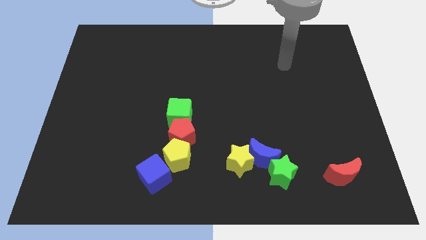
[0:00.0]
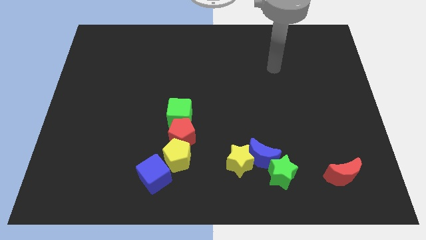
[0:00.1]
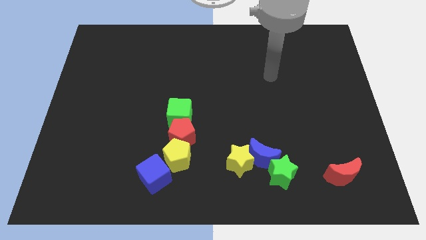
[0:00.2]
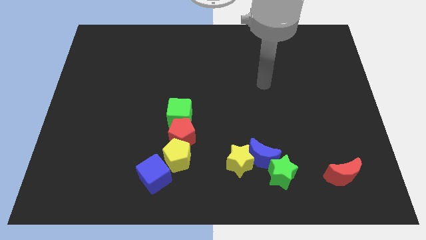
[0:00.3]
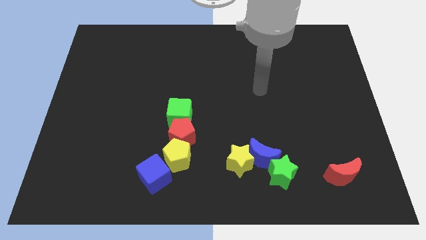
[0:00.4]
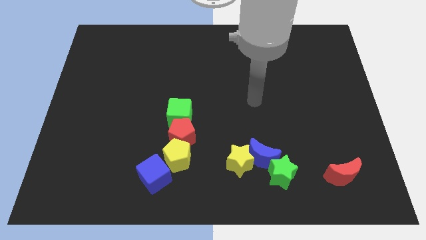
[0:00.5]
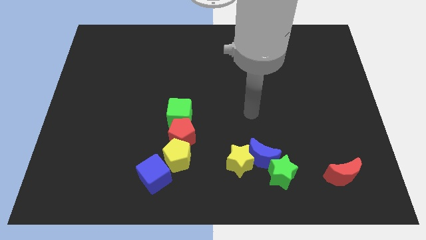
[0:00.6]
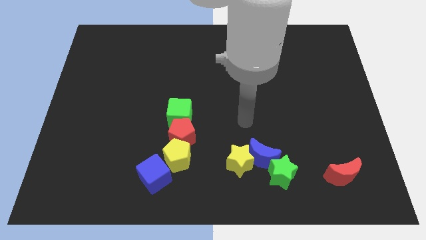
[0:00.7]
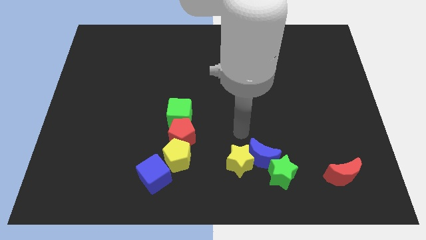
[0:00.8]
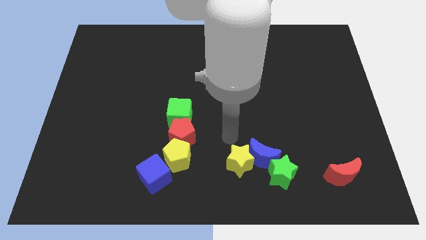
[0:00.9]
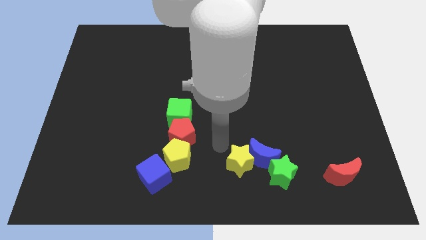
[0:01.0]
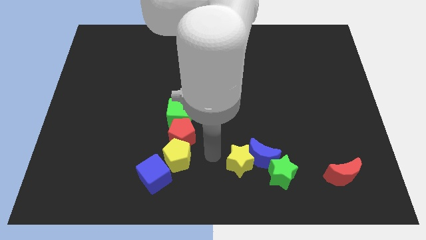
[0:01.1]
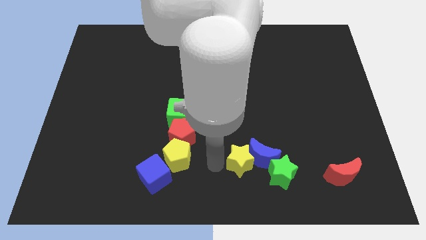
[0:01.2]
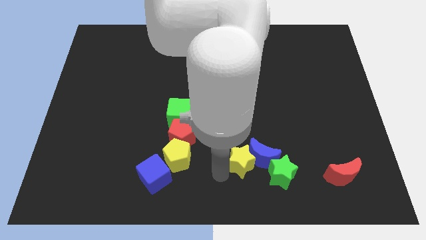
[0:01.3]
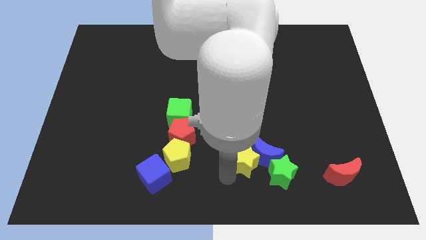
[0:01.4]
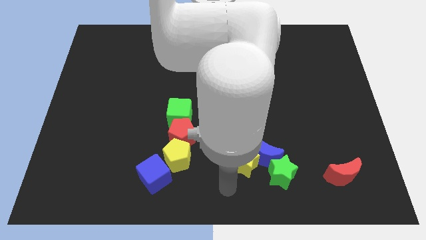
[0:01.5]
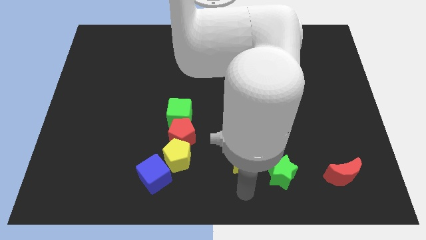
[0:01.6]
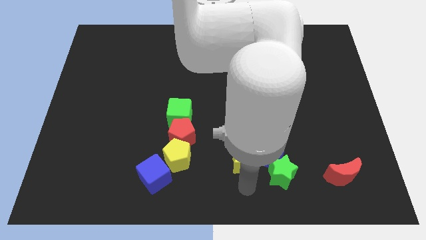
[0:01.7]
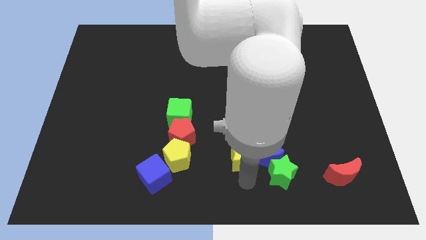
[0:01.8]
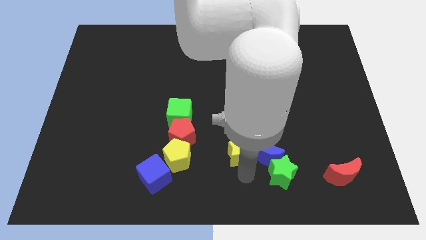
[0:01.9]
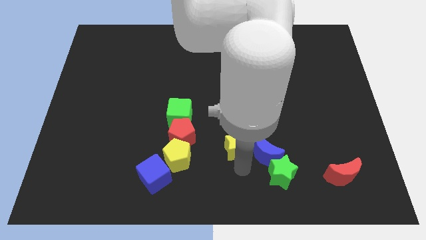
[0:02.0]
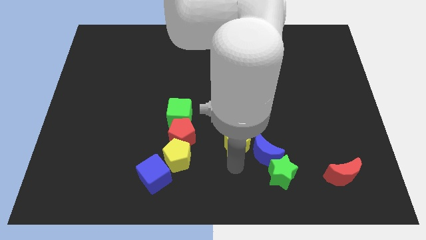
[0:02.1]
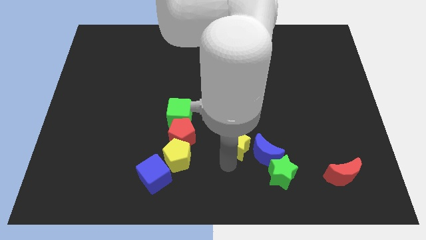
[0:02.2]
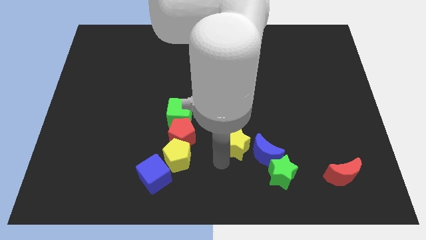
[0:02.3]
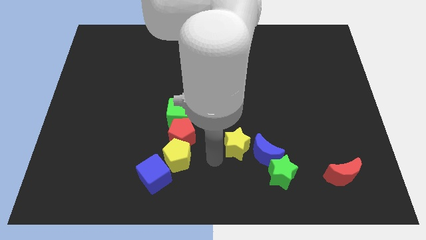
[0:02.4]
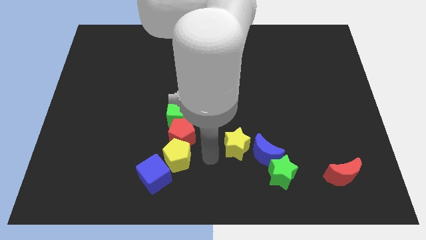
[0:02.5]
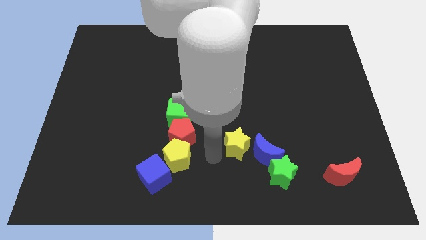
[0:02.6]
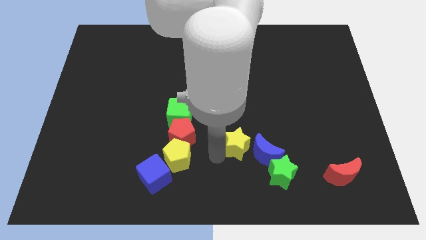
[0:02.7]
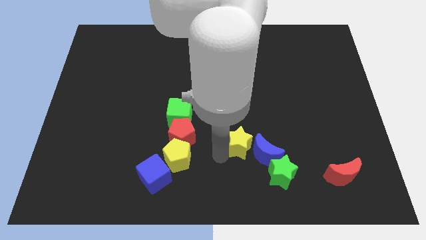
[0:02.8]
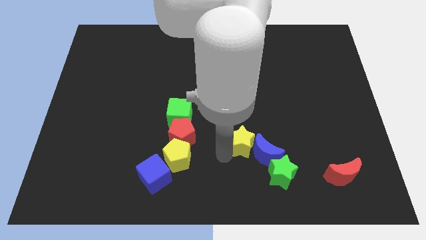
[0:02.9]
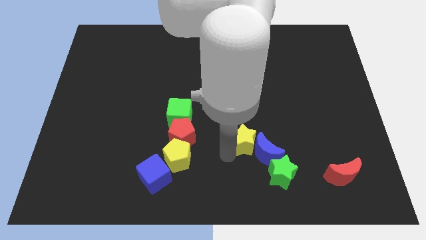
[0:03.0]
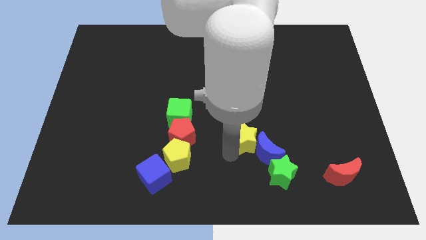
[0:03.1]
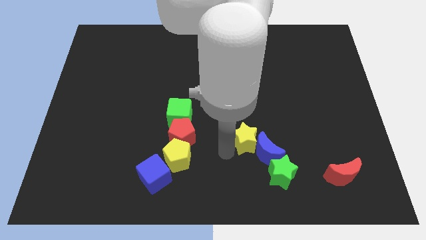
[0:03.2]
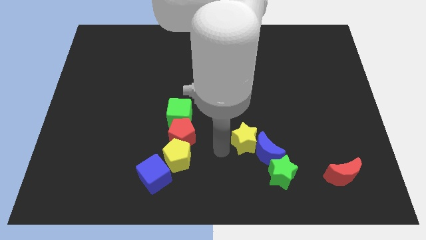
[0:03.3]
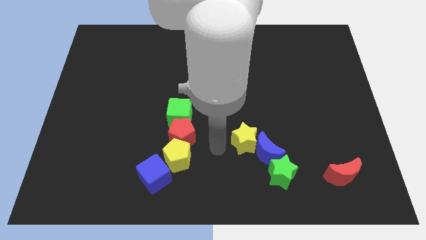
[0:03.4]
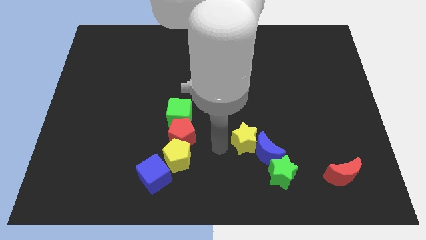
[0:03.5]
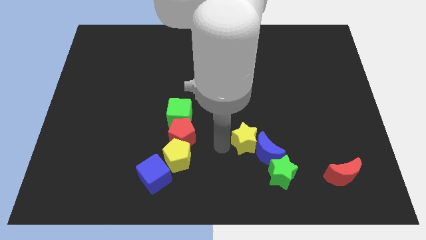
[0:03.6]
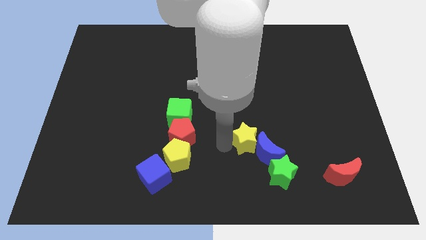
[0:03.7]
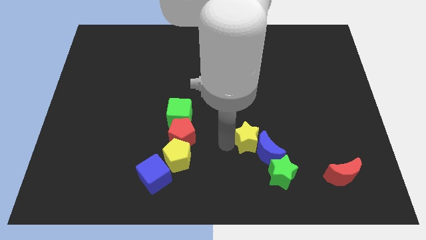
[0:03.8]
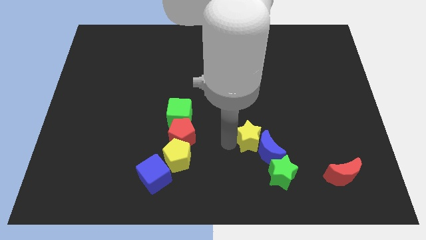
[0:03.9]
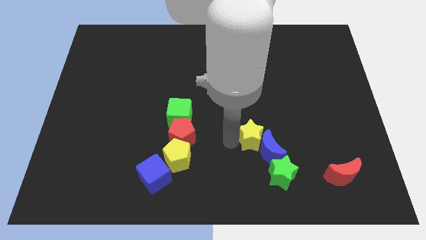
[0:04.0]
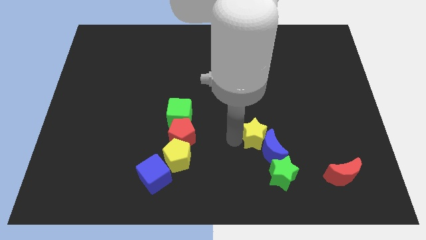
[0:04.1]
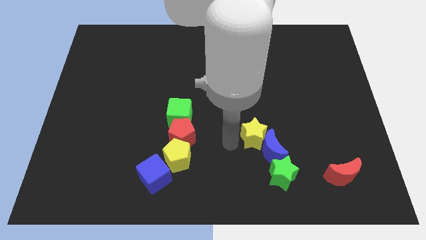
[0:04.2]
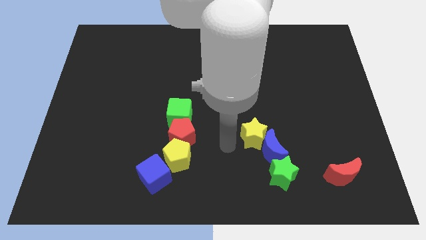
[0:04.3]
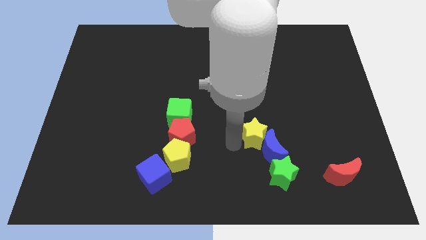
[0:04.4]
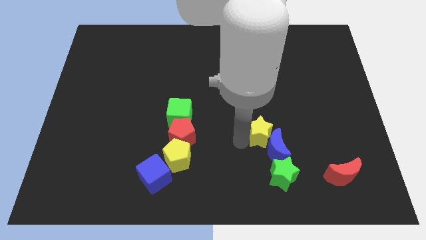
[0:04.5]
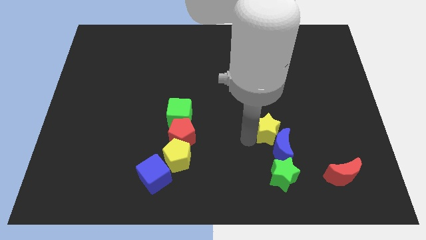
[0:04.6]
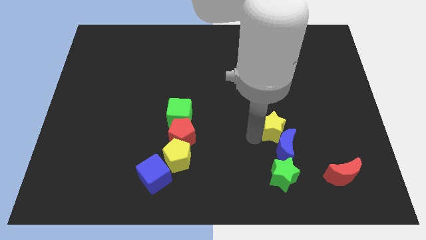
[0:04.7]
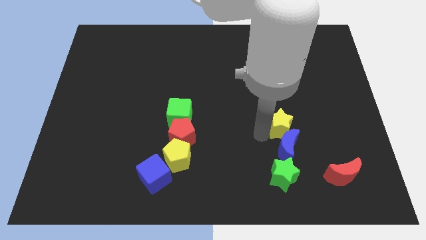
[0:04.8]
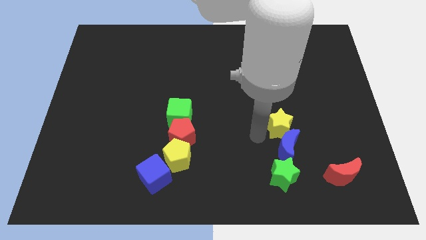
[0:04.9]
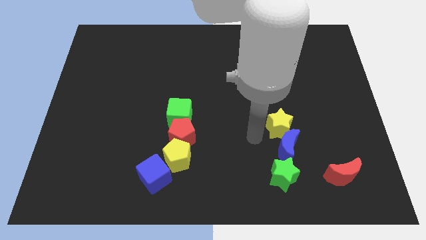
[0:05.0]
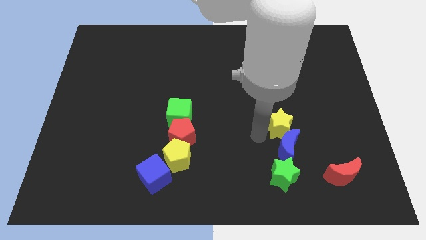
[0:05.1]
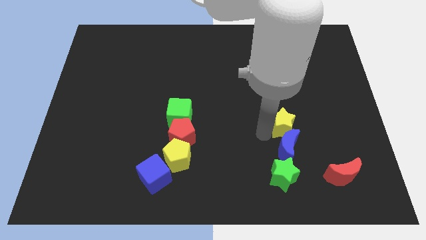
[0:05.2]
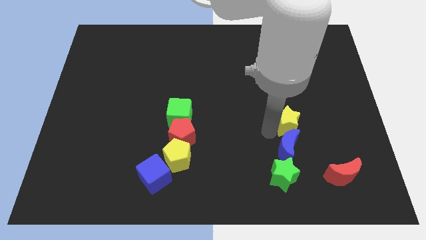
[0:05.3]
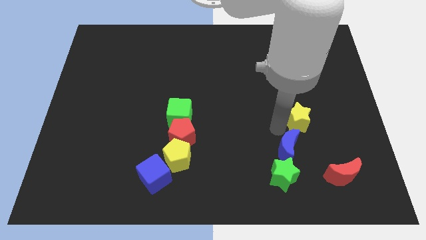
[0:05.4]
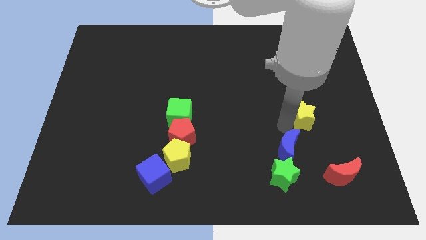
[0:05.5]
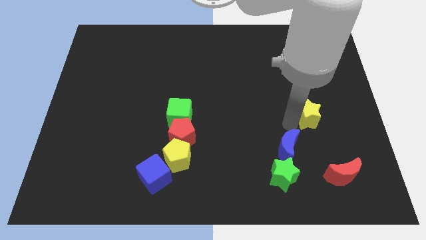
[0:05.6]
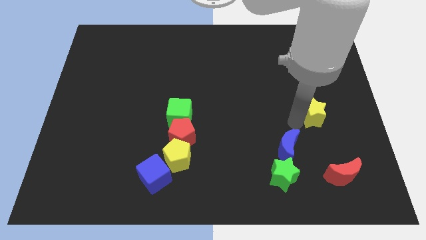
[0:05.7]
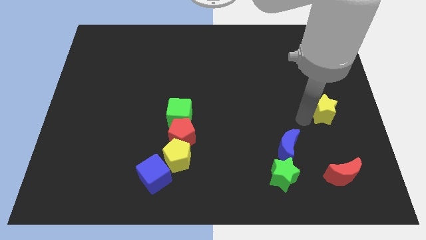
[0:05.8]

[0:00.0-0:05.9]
move the yellow star to the right side
